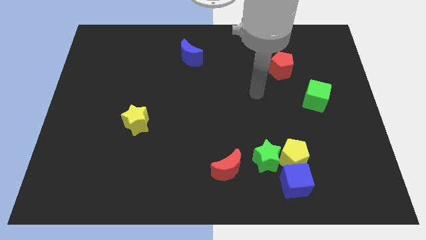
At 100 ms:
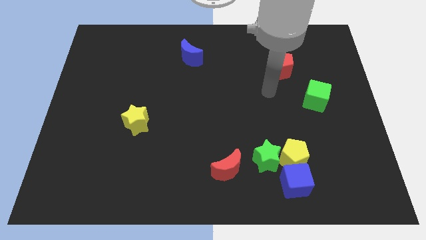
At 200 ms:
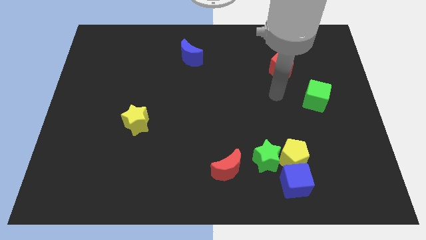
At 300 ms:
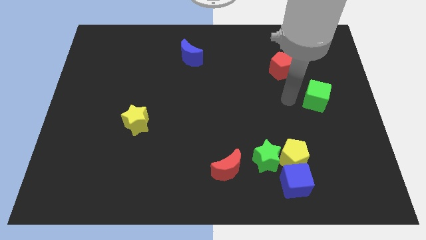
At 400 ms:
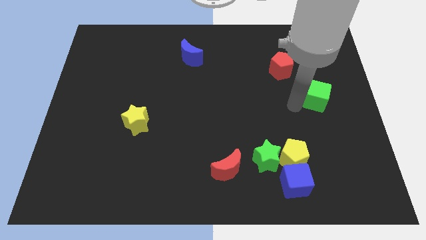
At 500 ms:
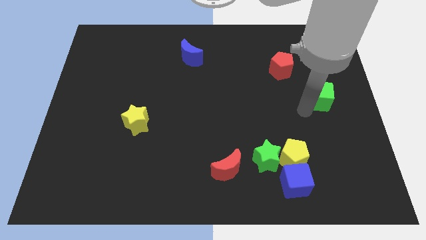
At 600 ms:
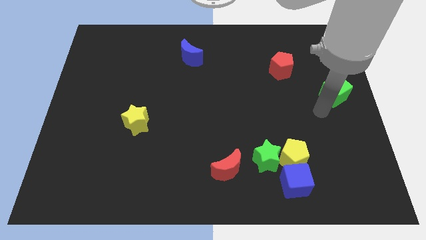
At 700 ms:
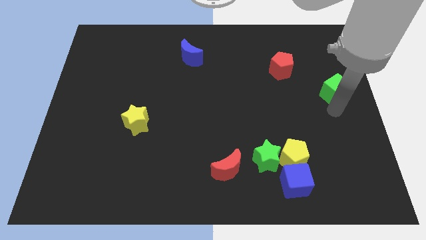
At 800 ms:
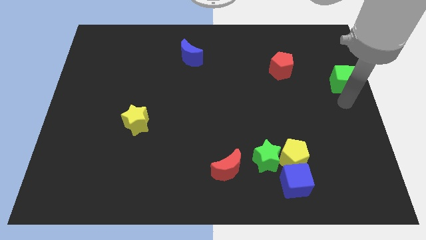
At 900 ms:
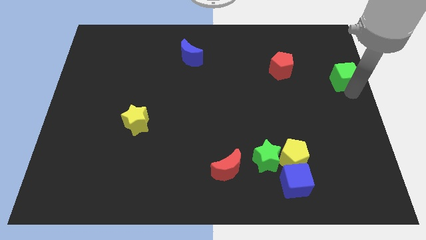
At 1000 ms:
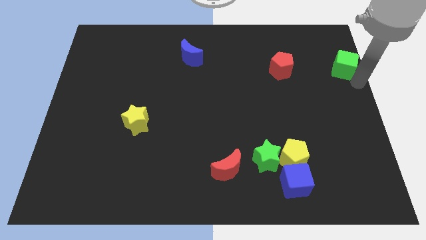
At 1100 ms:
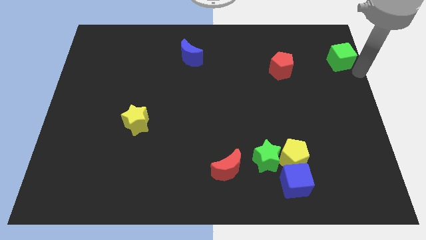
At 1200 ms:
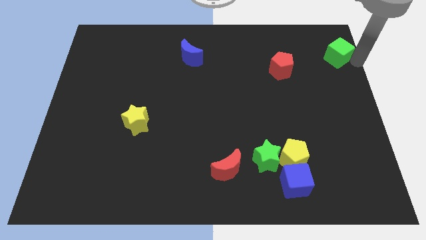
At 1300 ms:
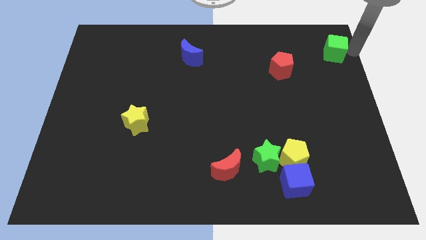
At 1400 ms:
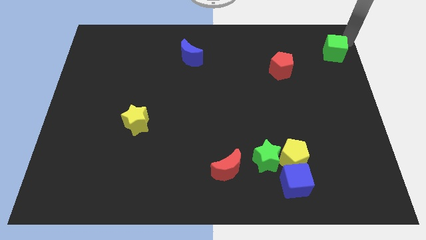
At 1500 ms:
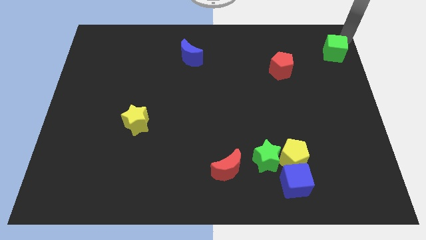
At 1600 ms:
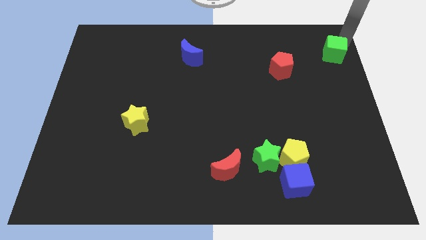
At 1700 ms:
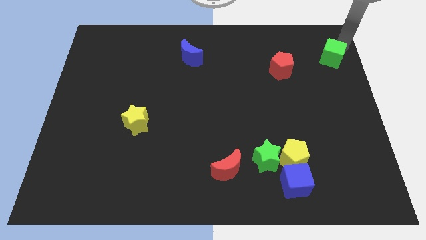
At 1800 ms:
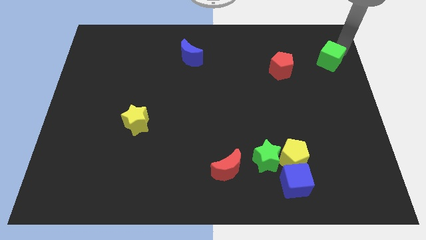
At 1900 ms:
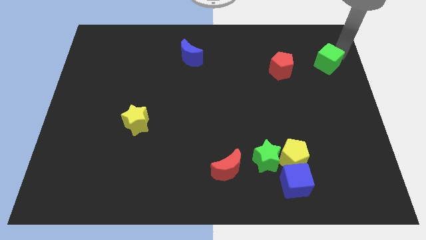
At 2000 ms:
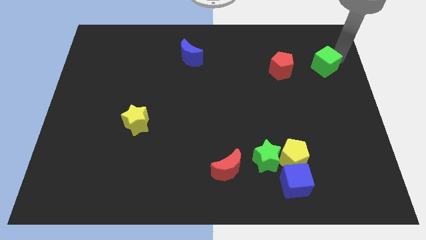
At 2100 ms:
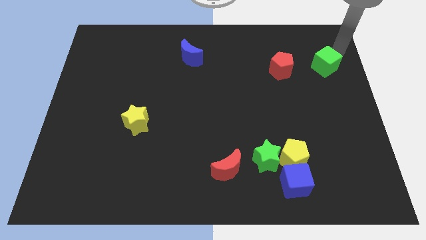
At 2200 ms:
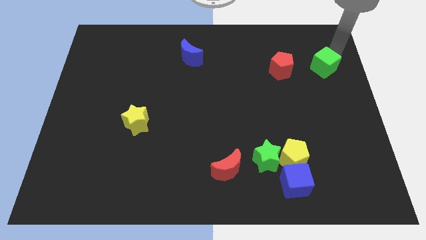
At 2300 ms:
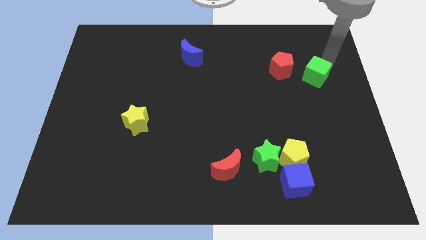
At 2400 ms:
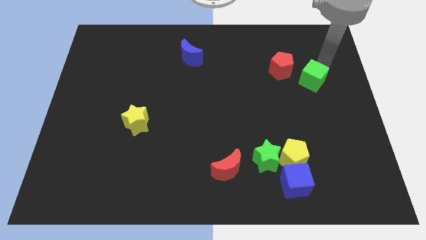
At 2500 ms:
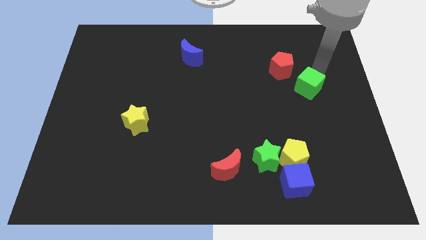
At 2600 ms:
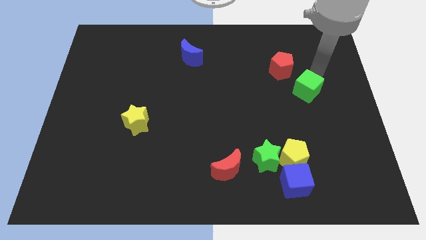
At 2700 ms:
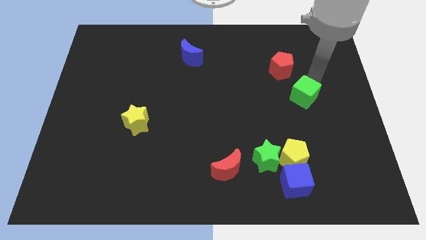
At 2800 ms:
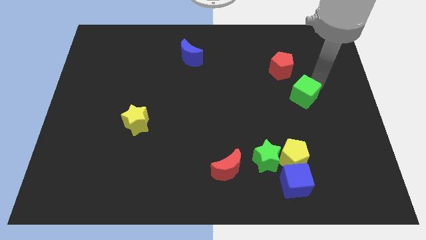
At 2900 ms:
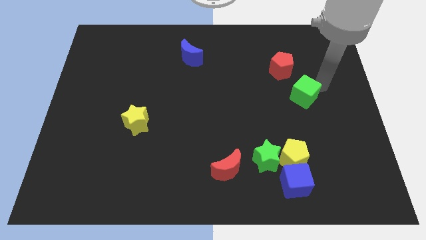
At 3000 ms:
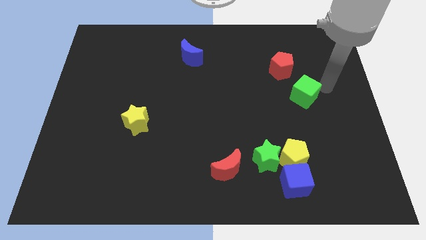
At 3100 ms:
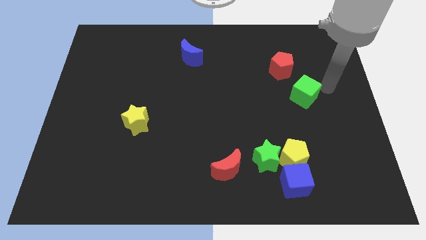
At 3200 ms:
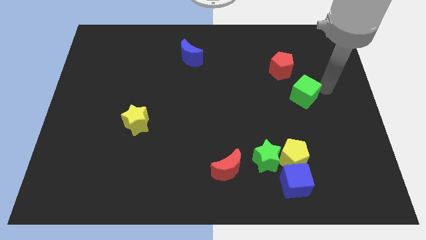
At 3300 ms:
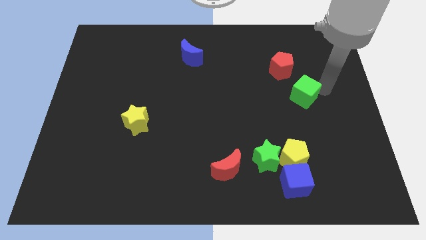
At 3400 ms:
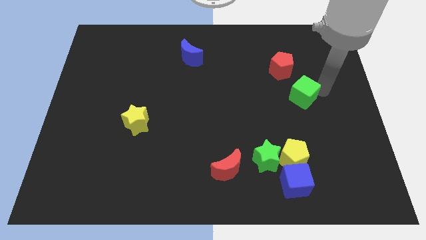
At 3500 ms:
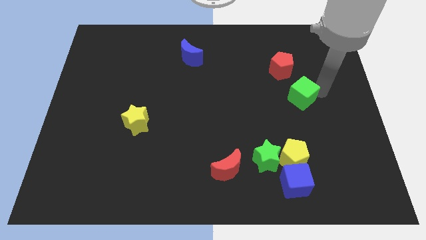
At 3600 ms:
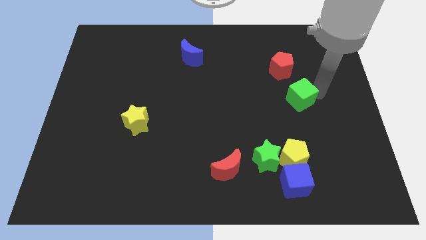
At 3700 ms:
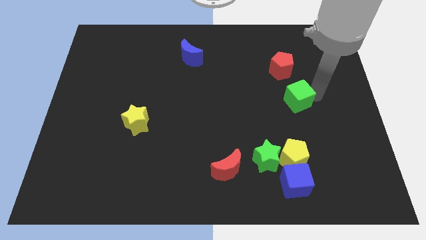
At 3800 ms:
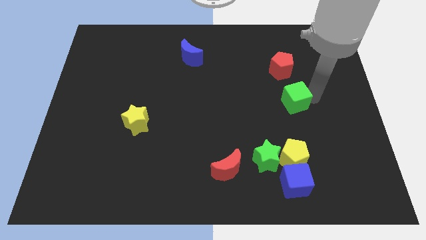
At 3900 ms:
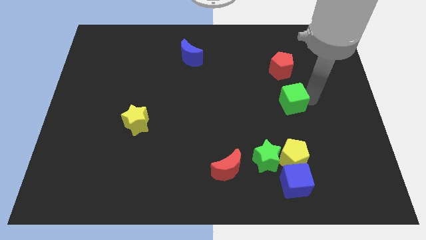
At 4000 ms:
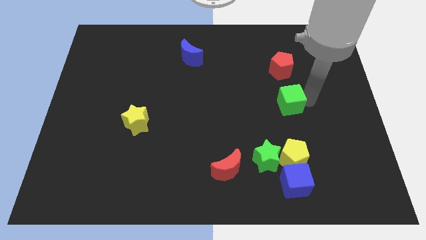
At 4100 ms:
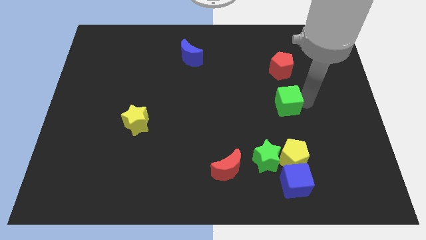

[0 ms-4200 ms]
push the green cube a bit left

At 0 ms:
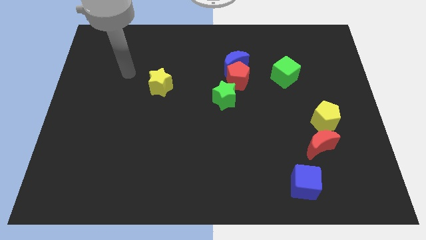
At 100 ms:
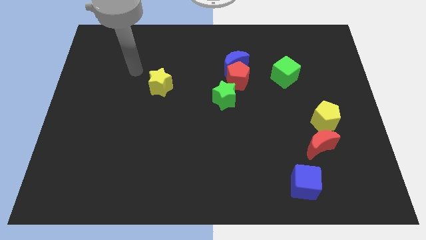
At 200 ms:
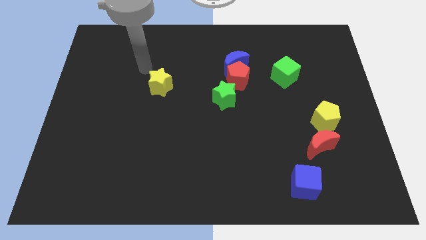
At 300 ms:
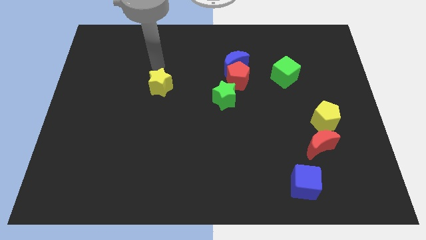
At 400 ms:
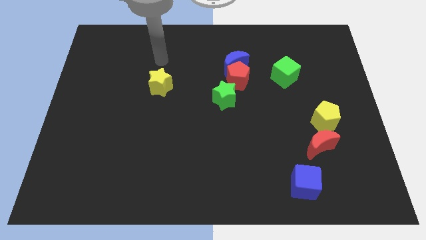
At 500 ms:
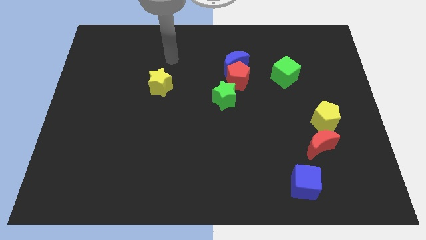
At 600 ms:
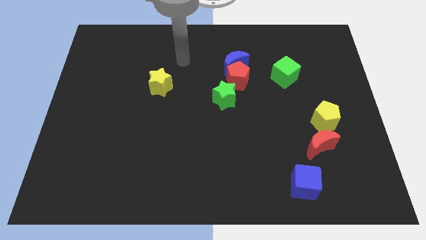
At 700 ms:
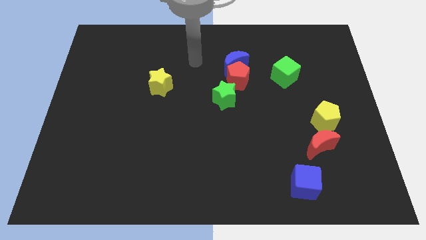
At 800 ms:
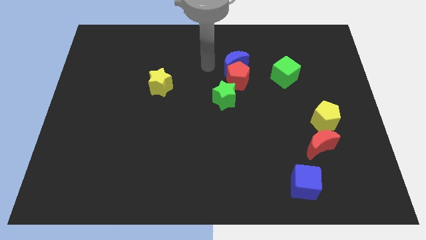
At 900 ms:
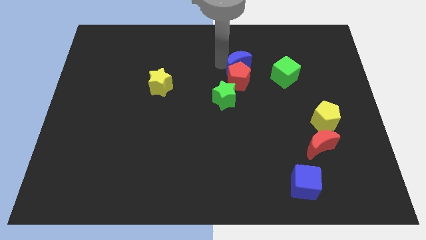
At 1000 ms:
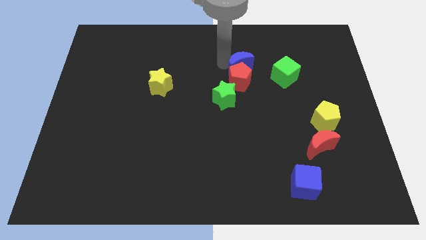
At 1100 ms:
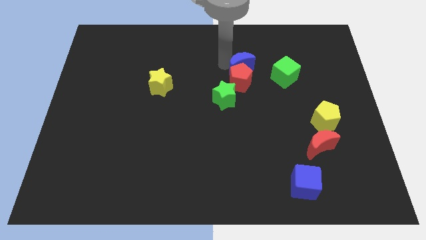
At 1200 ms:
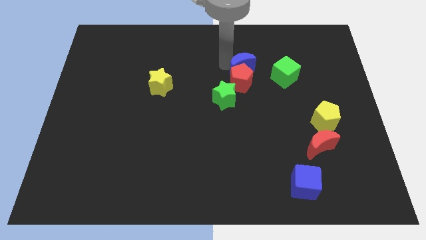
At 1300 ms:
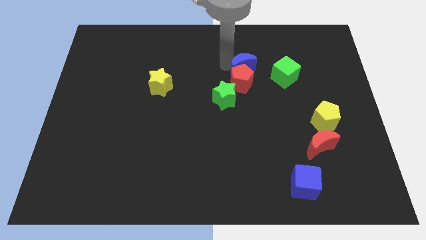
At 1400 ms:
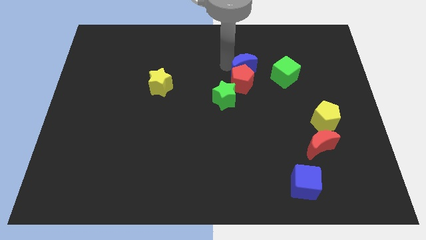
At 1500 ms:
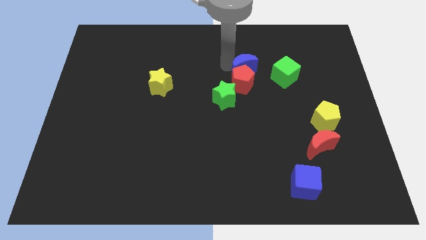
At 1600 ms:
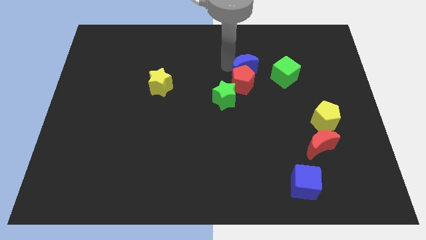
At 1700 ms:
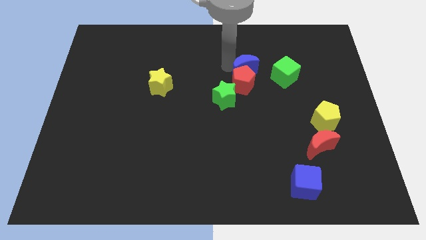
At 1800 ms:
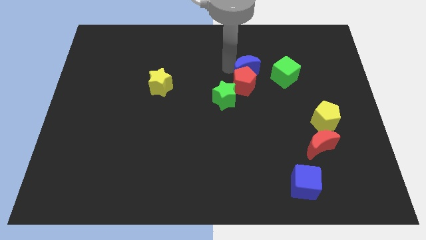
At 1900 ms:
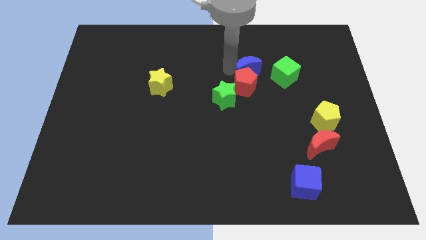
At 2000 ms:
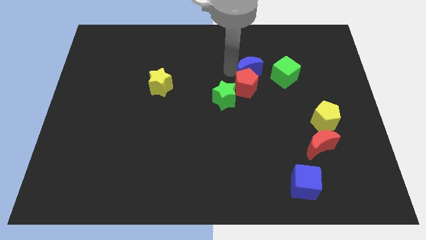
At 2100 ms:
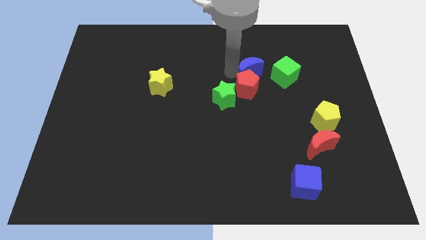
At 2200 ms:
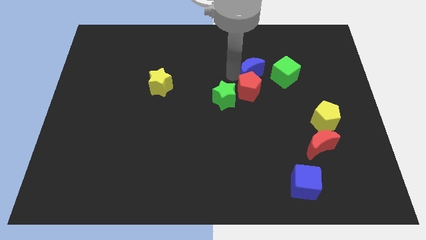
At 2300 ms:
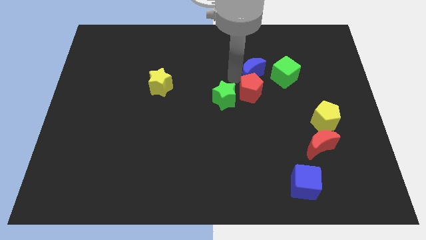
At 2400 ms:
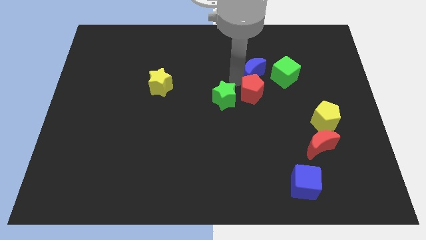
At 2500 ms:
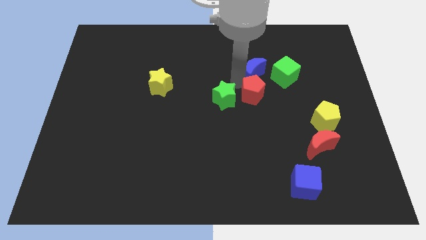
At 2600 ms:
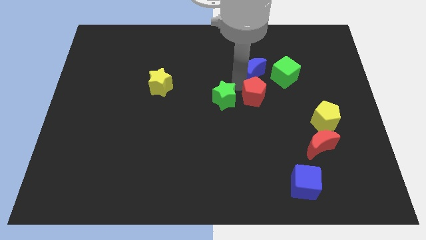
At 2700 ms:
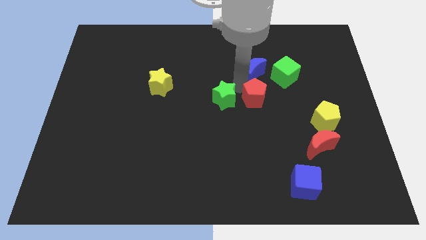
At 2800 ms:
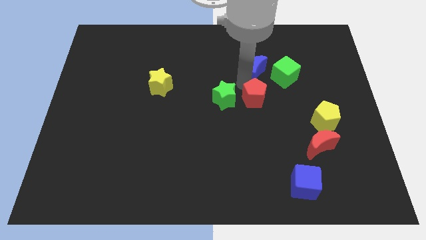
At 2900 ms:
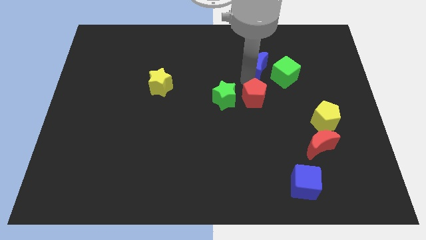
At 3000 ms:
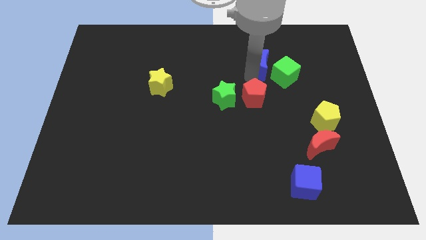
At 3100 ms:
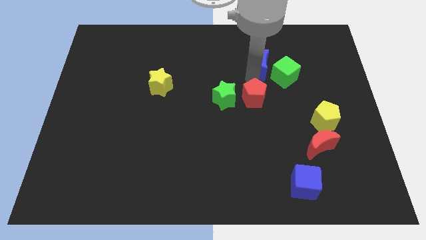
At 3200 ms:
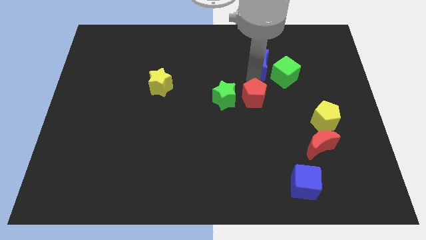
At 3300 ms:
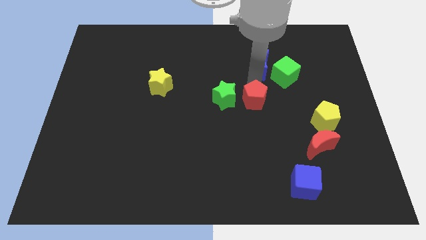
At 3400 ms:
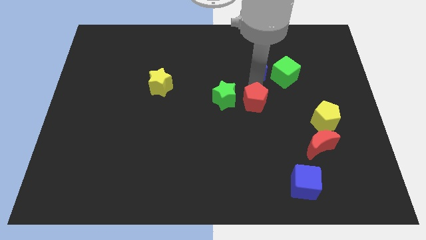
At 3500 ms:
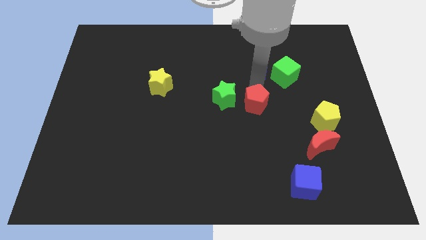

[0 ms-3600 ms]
push the red pentagon downwards a little

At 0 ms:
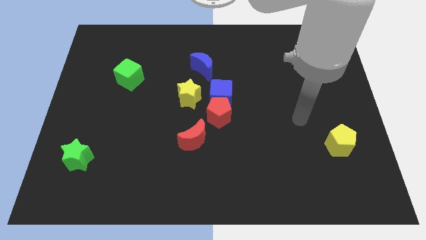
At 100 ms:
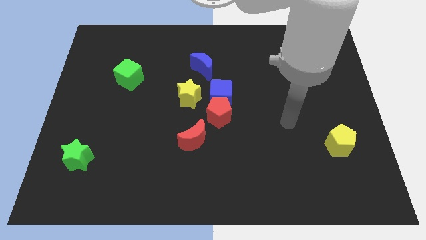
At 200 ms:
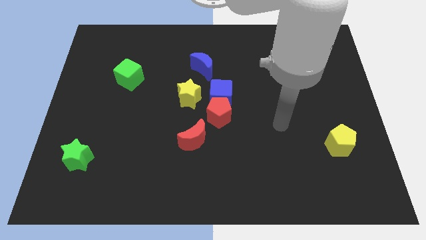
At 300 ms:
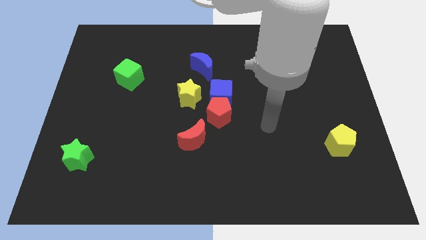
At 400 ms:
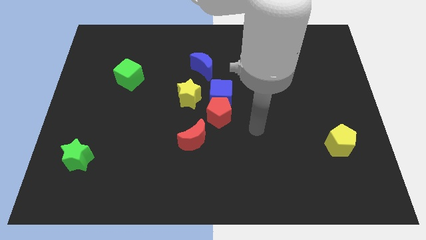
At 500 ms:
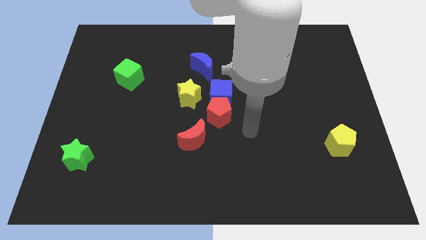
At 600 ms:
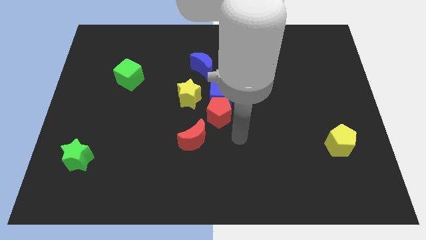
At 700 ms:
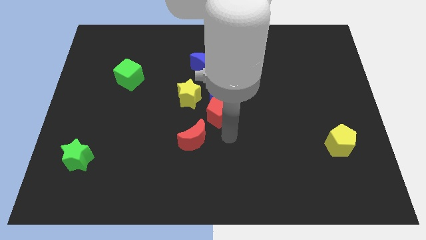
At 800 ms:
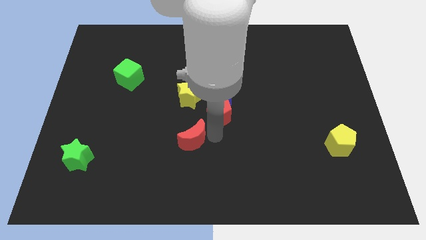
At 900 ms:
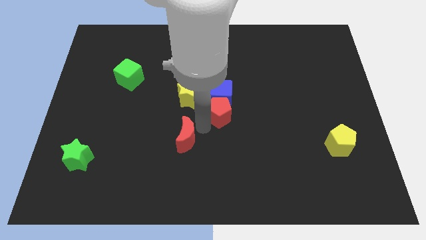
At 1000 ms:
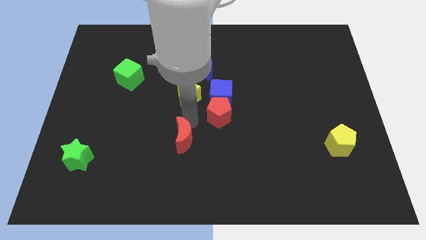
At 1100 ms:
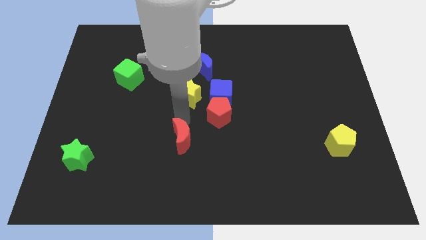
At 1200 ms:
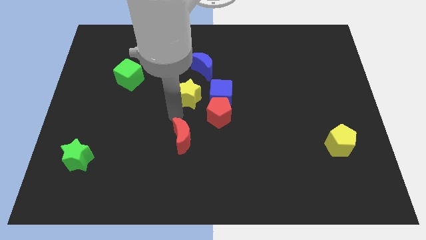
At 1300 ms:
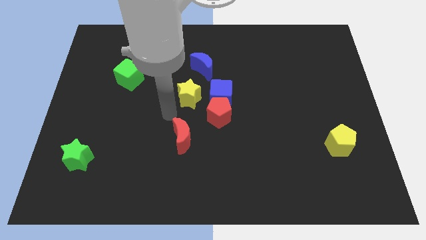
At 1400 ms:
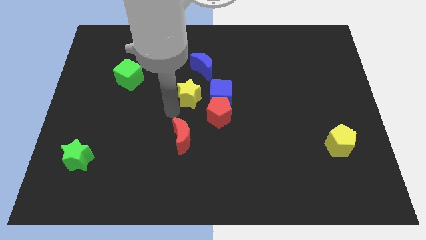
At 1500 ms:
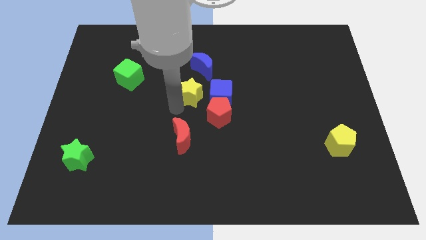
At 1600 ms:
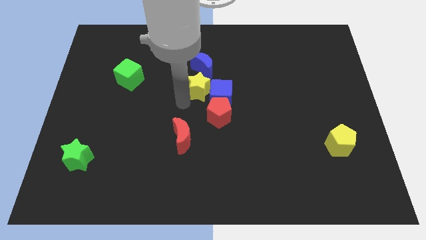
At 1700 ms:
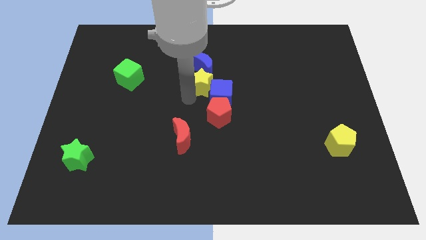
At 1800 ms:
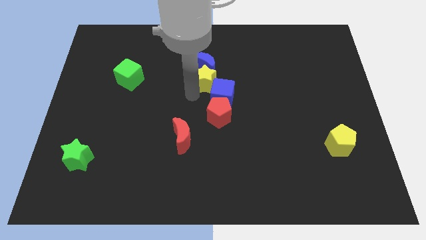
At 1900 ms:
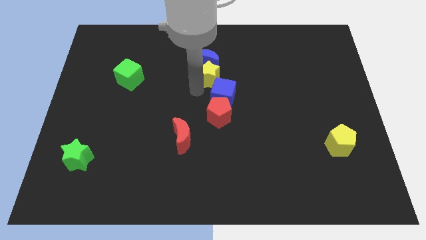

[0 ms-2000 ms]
slightly slide the yellow star up and right
